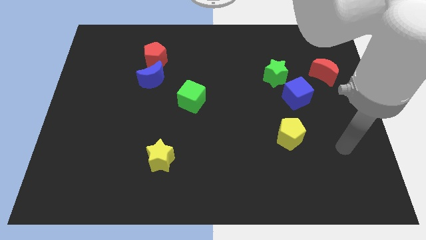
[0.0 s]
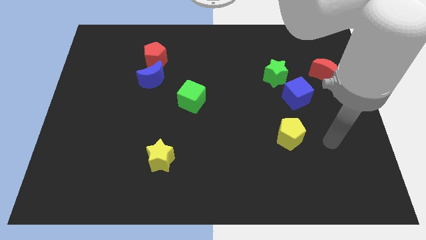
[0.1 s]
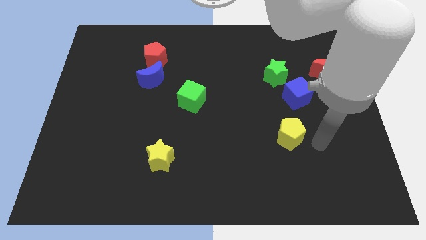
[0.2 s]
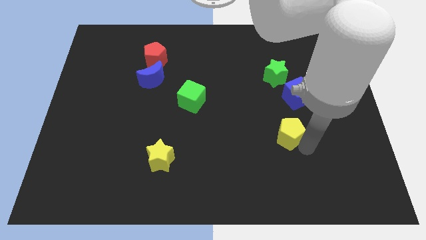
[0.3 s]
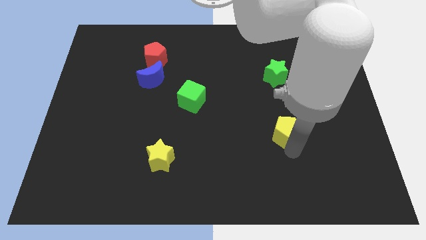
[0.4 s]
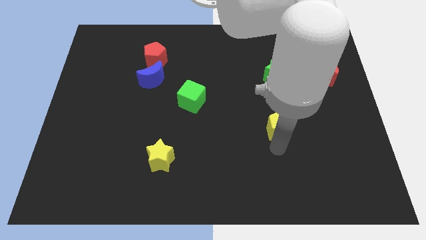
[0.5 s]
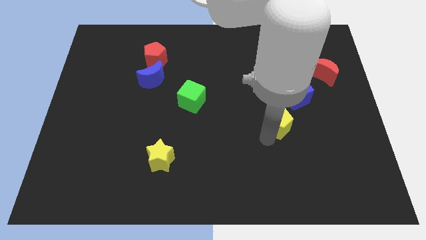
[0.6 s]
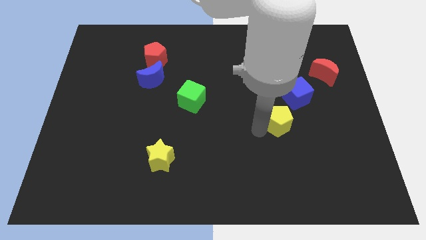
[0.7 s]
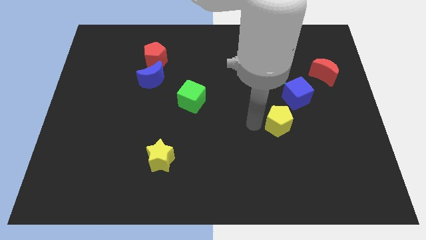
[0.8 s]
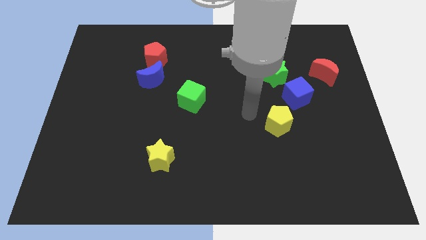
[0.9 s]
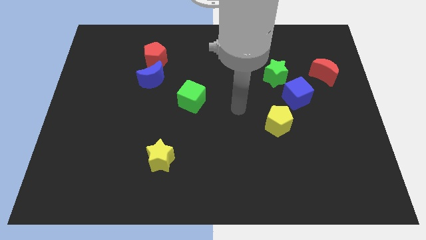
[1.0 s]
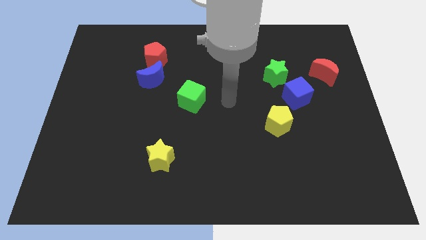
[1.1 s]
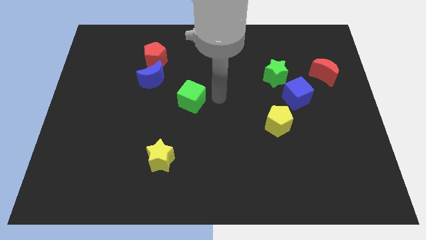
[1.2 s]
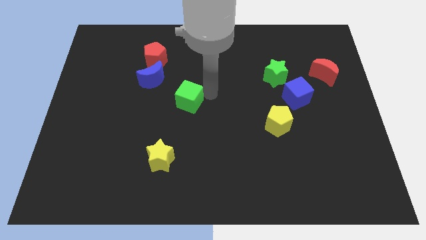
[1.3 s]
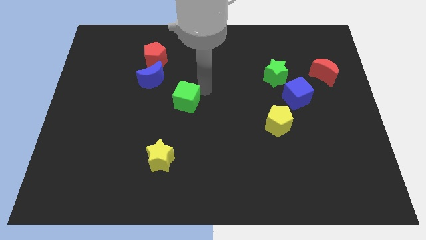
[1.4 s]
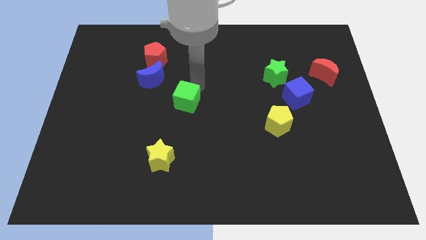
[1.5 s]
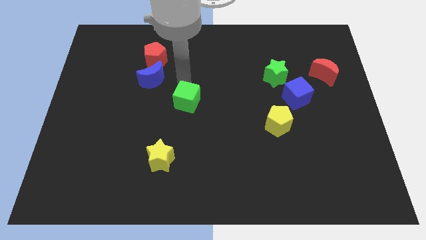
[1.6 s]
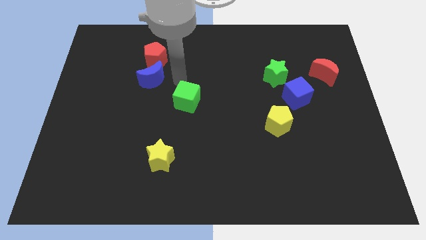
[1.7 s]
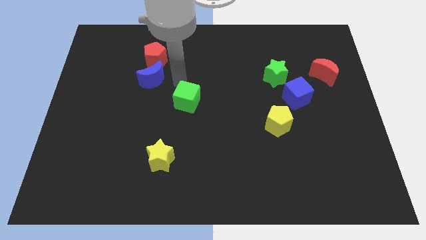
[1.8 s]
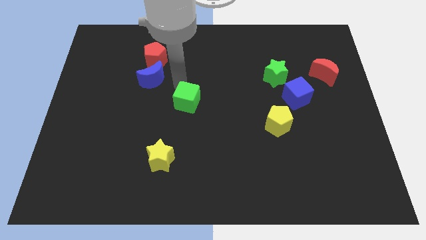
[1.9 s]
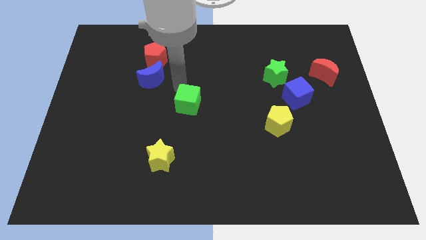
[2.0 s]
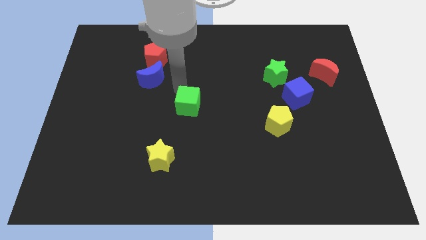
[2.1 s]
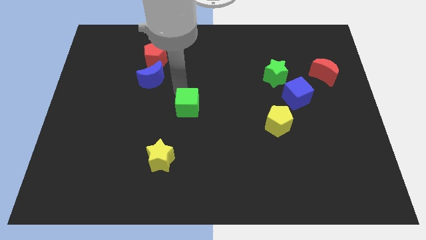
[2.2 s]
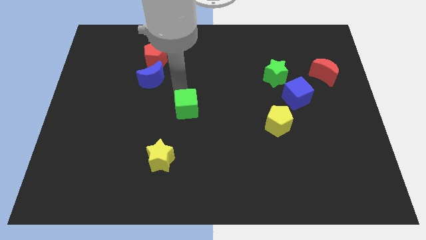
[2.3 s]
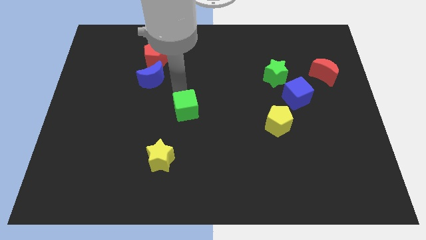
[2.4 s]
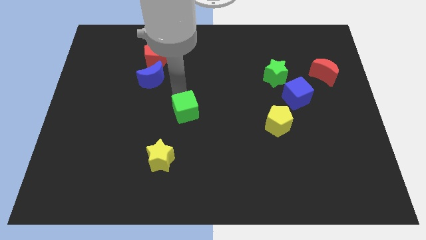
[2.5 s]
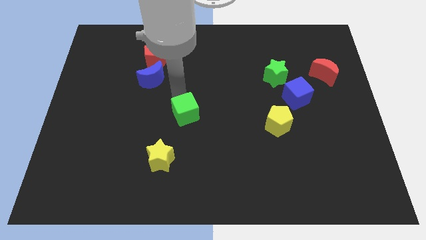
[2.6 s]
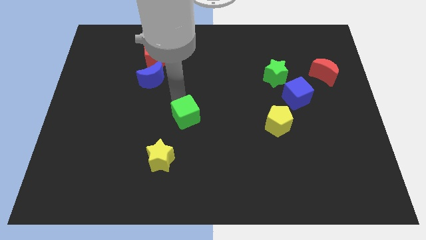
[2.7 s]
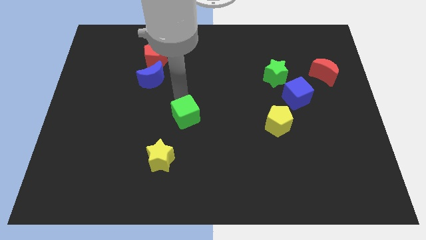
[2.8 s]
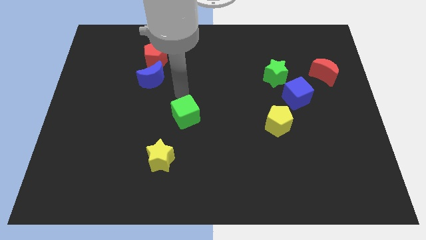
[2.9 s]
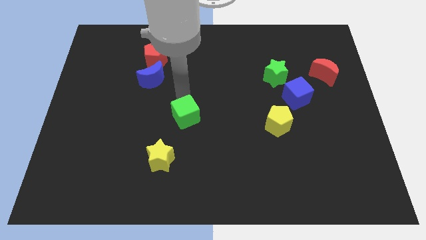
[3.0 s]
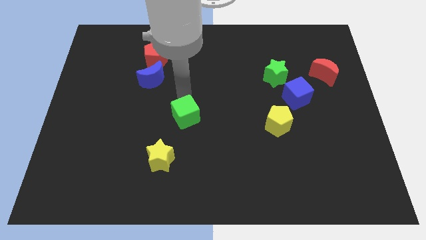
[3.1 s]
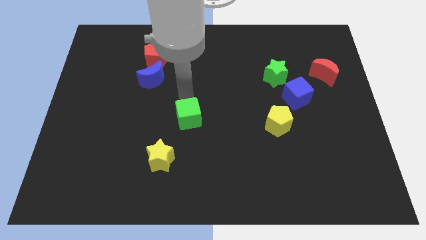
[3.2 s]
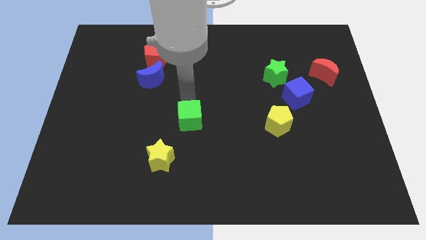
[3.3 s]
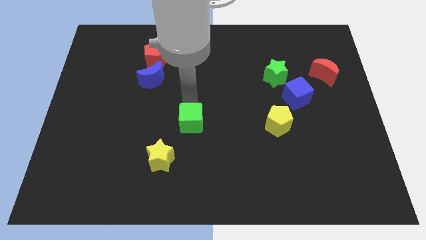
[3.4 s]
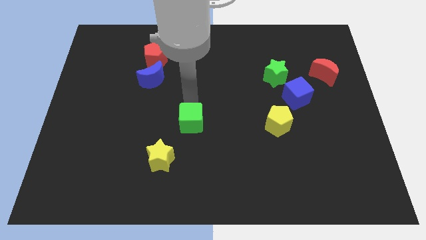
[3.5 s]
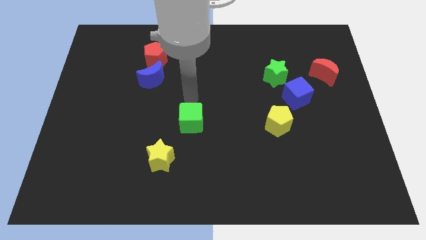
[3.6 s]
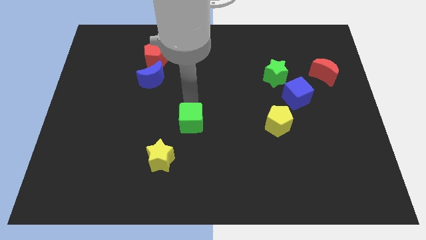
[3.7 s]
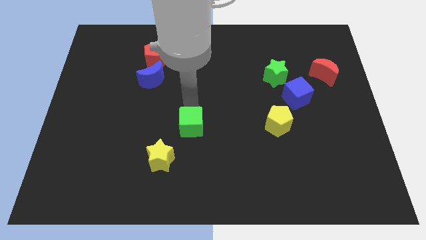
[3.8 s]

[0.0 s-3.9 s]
slide the green cube a bit down

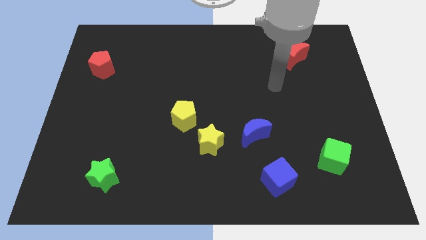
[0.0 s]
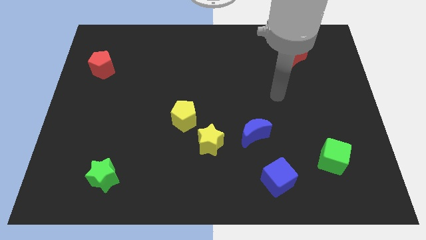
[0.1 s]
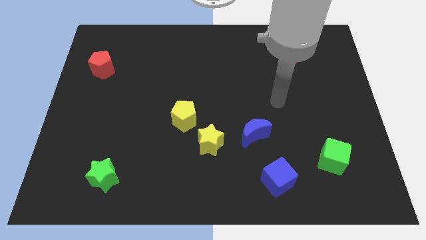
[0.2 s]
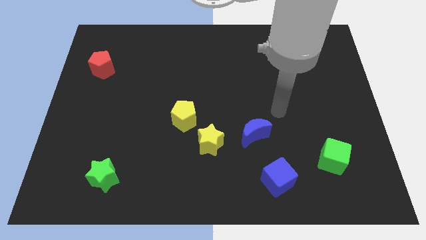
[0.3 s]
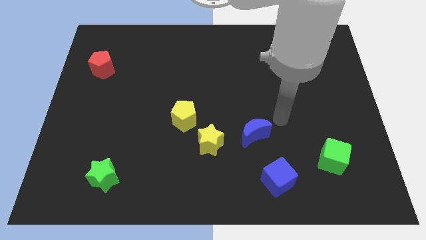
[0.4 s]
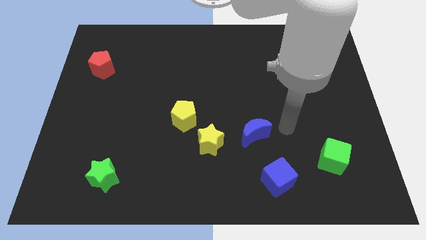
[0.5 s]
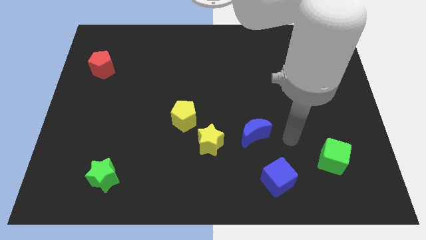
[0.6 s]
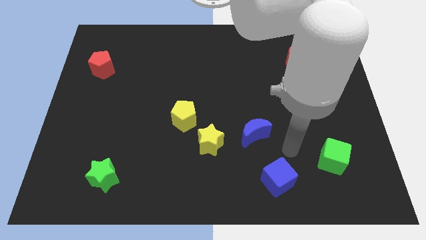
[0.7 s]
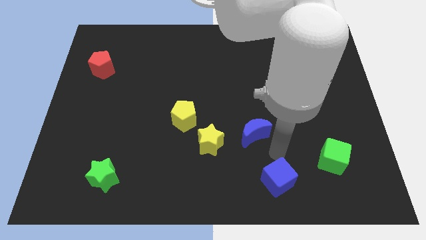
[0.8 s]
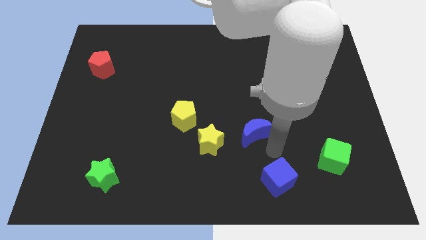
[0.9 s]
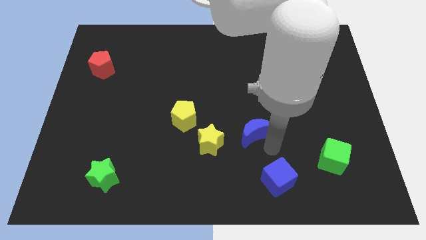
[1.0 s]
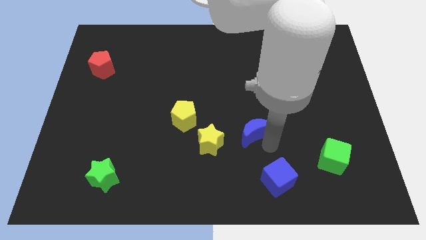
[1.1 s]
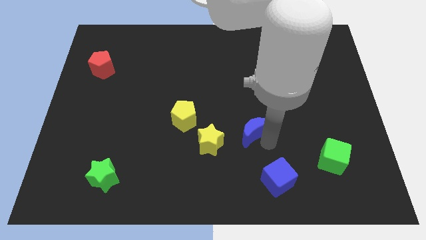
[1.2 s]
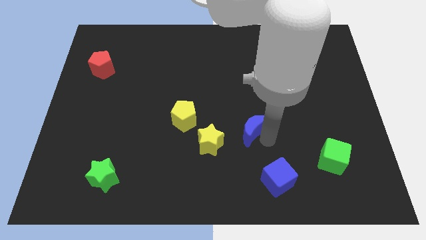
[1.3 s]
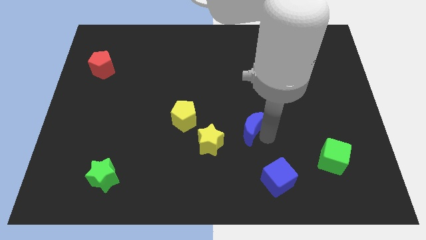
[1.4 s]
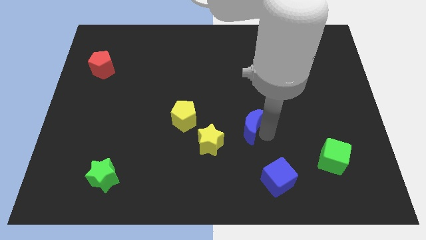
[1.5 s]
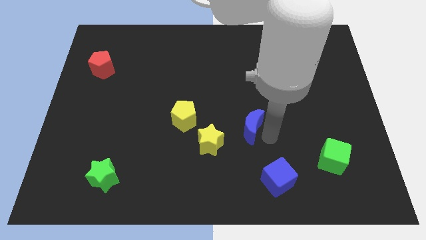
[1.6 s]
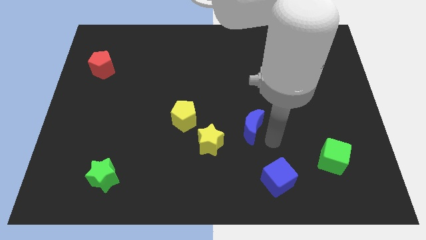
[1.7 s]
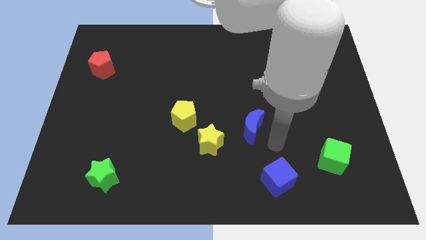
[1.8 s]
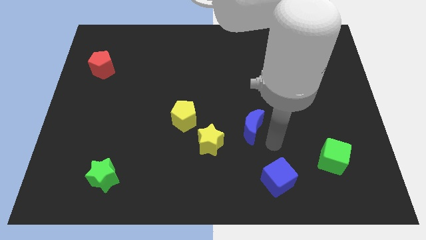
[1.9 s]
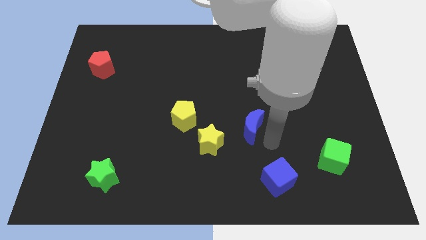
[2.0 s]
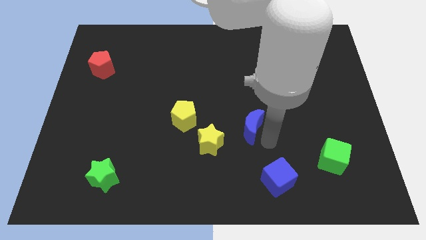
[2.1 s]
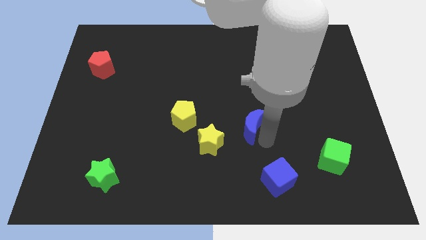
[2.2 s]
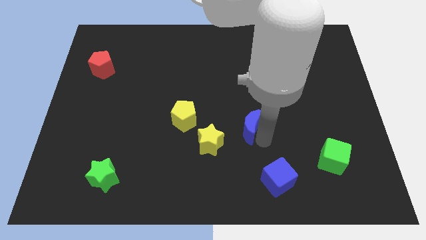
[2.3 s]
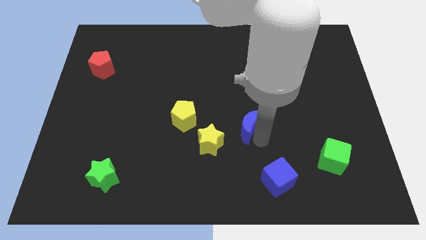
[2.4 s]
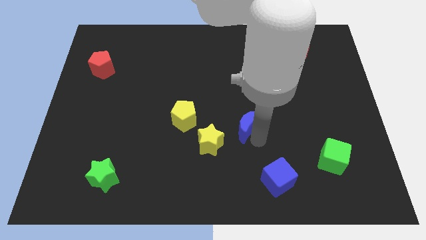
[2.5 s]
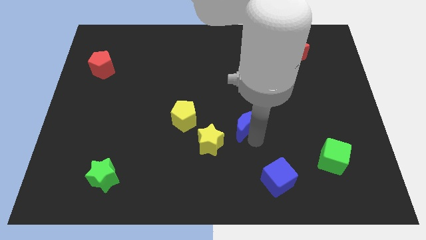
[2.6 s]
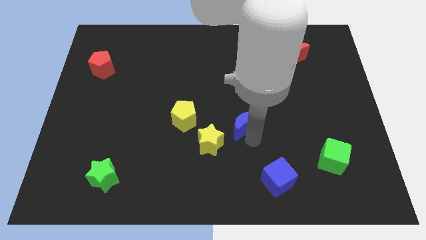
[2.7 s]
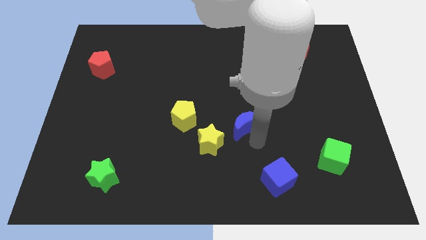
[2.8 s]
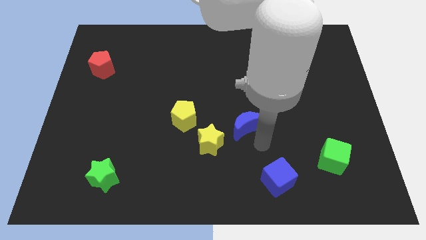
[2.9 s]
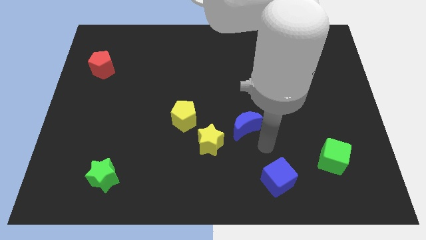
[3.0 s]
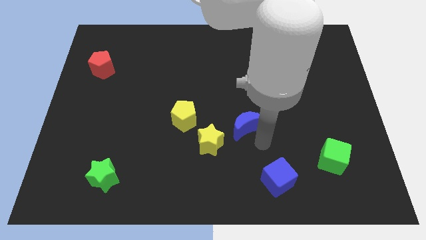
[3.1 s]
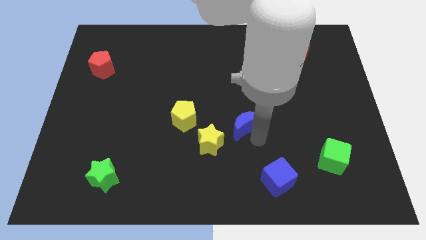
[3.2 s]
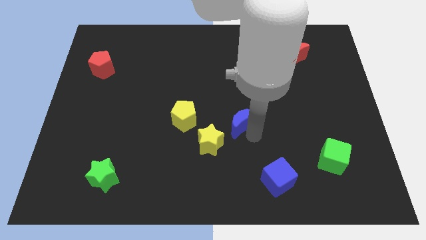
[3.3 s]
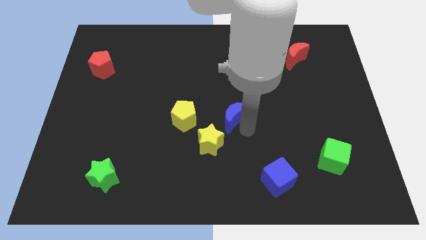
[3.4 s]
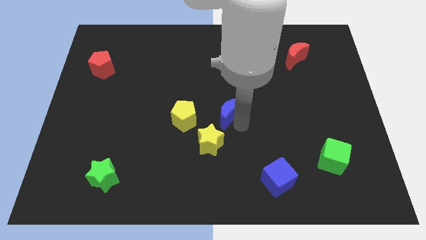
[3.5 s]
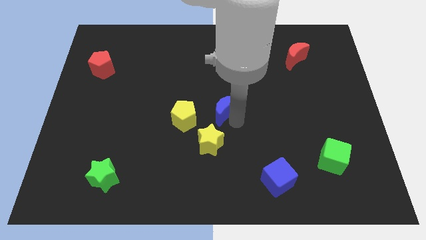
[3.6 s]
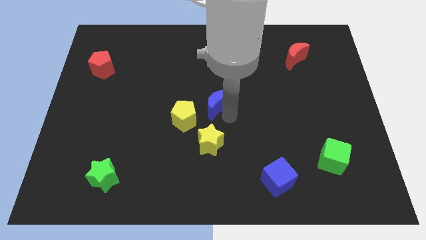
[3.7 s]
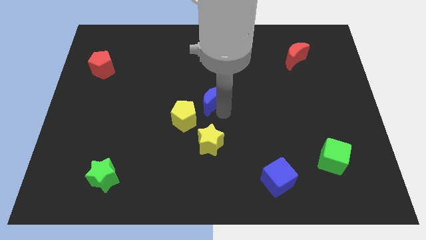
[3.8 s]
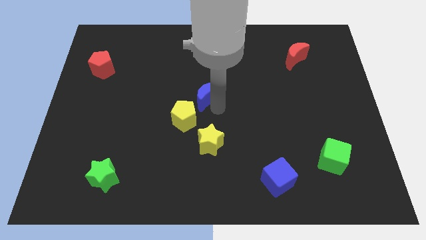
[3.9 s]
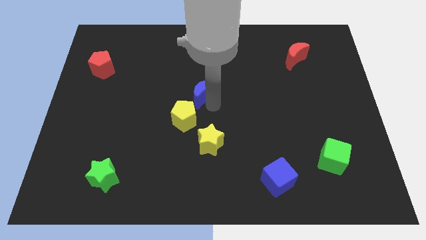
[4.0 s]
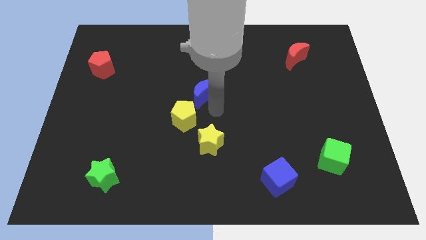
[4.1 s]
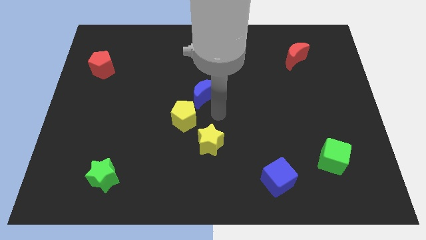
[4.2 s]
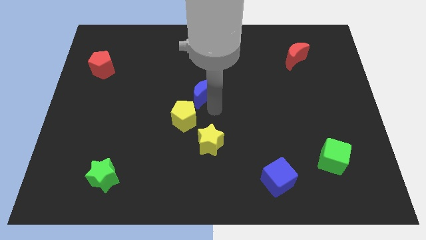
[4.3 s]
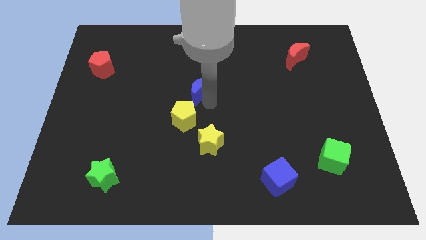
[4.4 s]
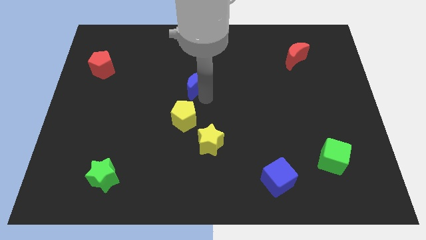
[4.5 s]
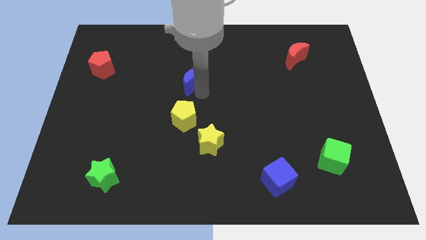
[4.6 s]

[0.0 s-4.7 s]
push the blue moon up and to the left diagonally

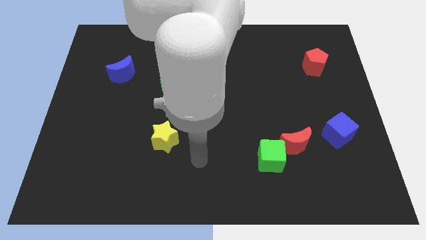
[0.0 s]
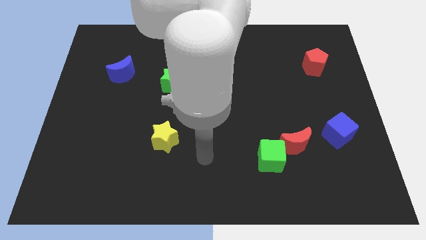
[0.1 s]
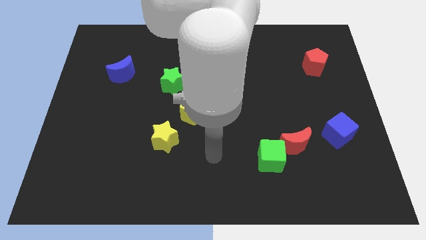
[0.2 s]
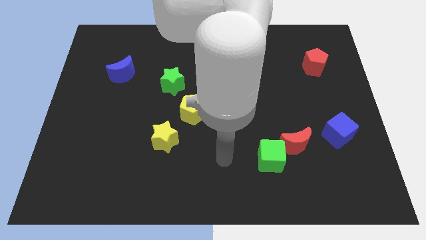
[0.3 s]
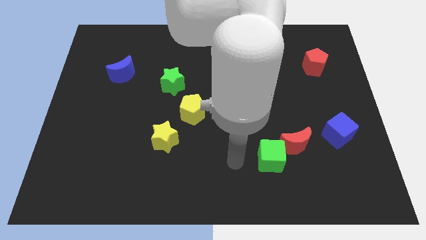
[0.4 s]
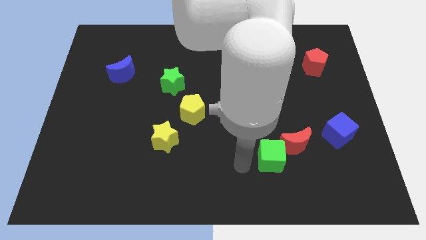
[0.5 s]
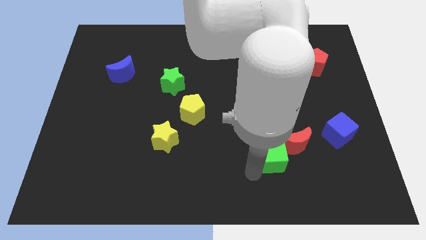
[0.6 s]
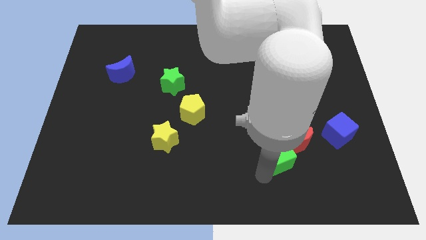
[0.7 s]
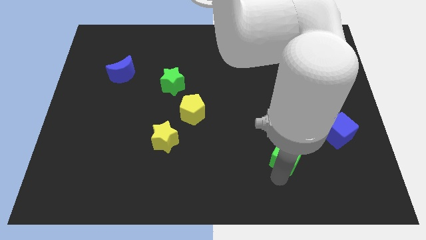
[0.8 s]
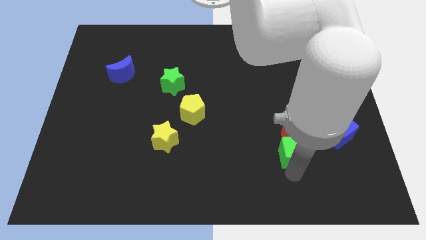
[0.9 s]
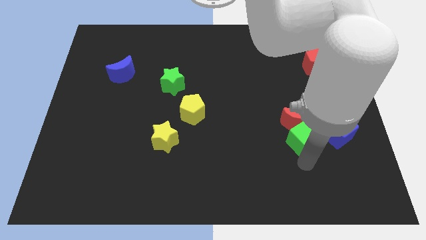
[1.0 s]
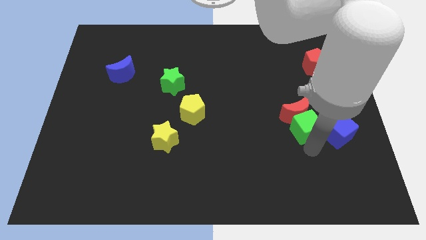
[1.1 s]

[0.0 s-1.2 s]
slightly move the red moon up
